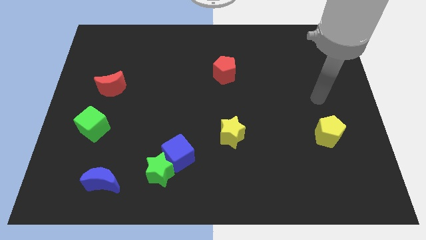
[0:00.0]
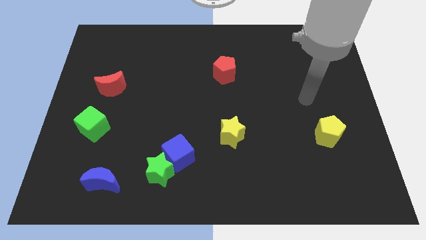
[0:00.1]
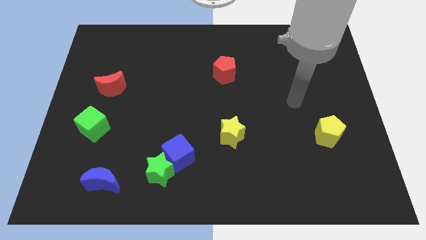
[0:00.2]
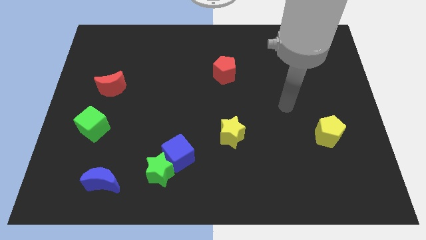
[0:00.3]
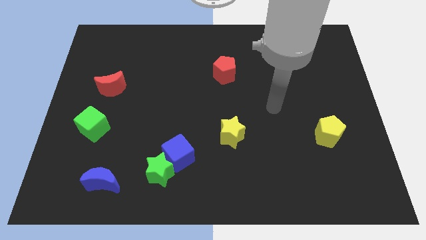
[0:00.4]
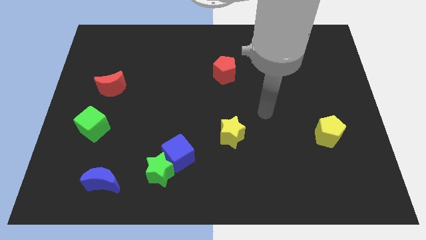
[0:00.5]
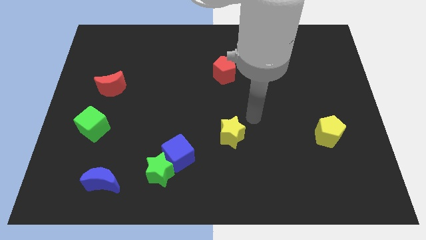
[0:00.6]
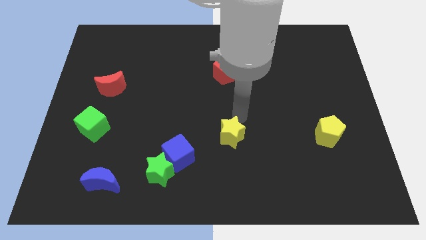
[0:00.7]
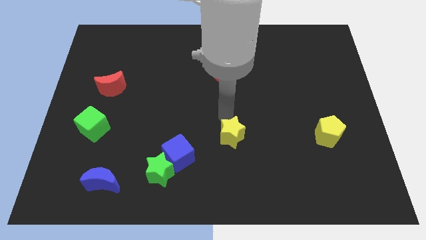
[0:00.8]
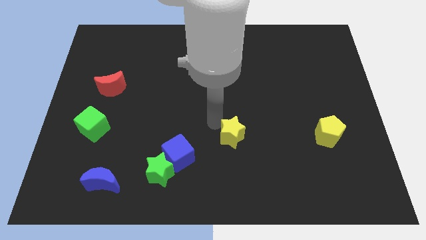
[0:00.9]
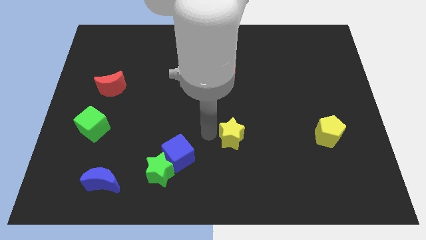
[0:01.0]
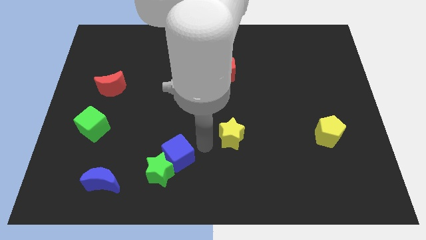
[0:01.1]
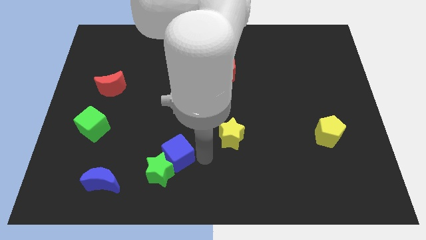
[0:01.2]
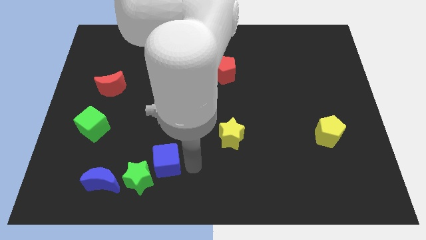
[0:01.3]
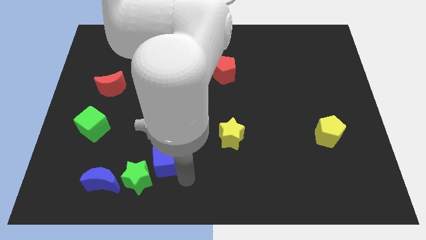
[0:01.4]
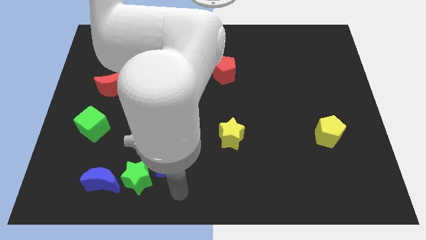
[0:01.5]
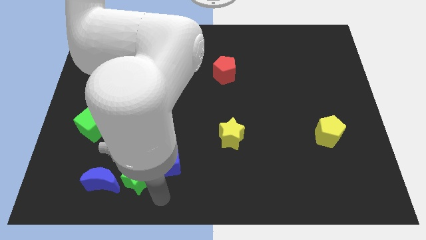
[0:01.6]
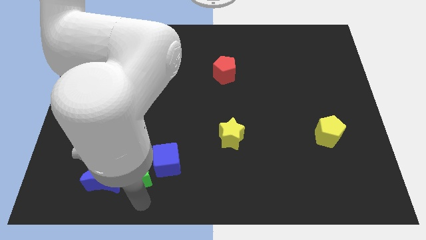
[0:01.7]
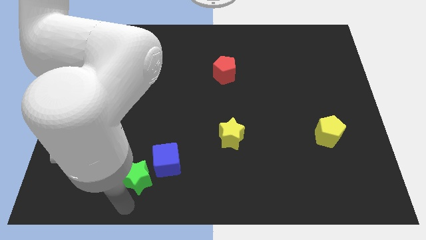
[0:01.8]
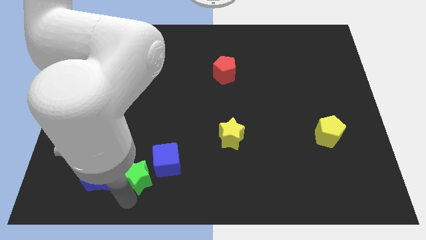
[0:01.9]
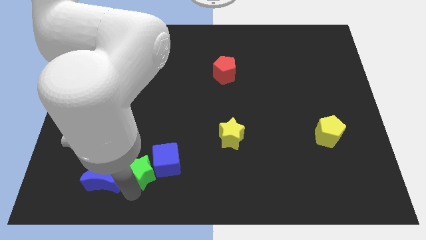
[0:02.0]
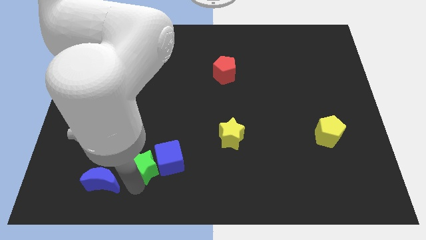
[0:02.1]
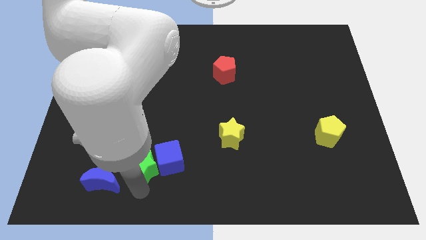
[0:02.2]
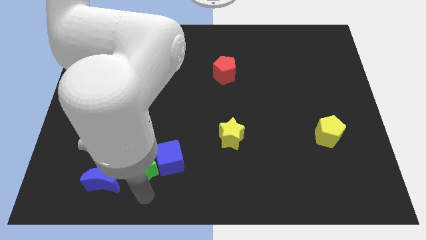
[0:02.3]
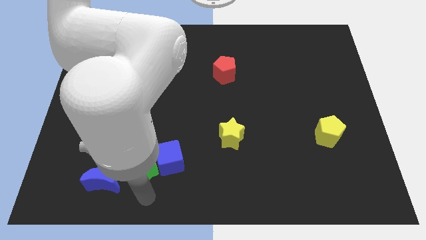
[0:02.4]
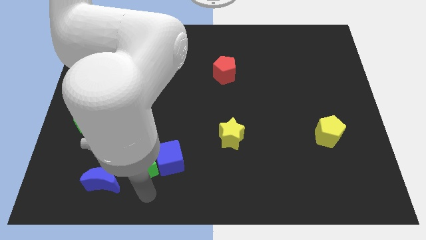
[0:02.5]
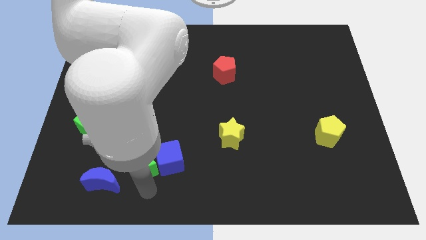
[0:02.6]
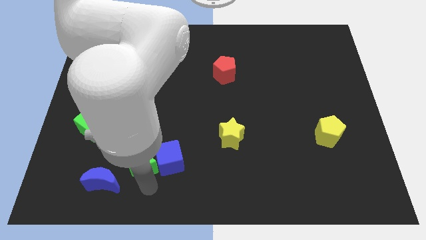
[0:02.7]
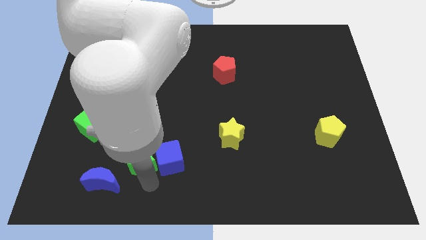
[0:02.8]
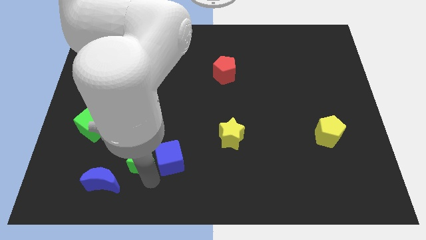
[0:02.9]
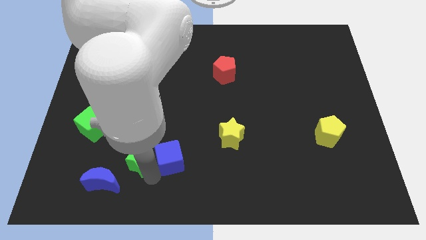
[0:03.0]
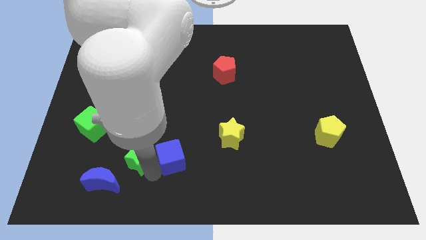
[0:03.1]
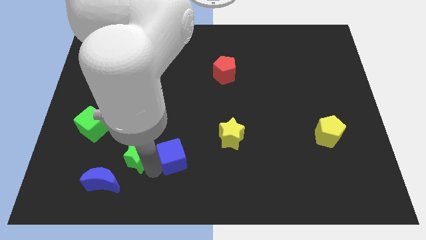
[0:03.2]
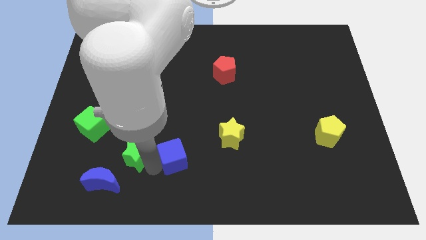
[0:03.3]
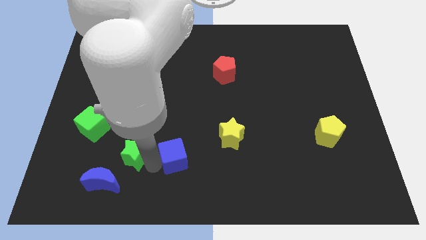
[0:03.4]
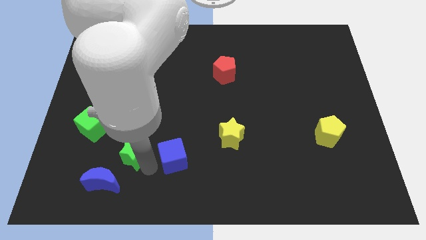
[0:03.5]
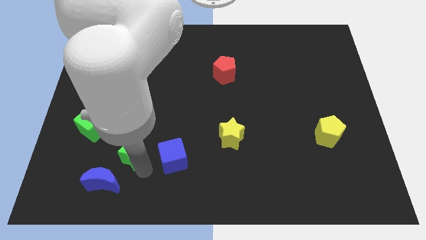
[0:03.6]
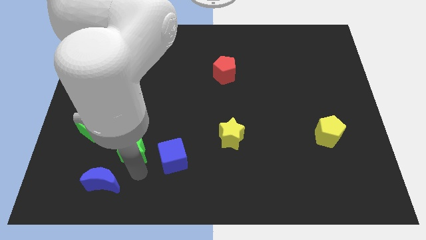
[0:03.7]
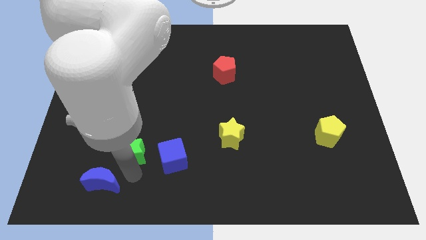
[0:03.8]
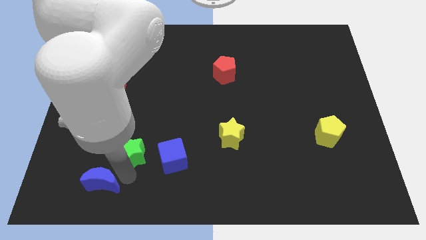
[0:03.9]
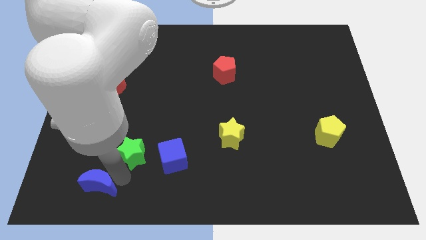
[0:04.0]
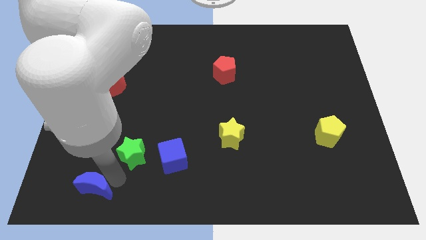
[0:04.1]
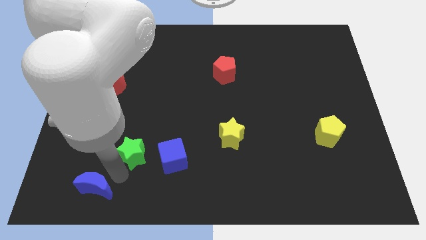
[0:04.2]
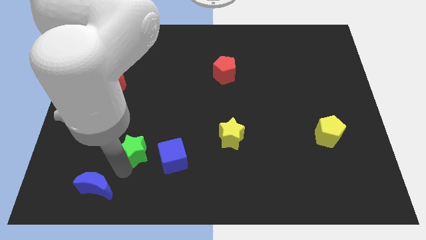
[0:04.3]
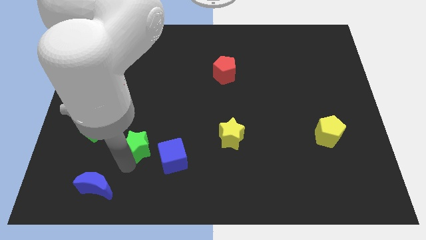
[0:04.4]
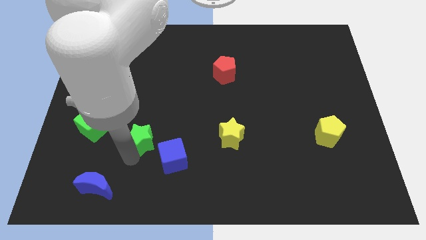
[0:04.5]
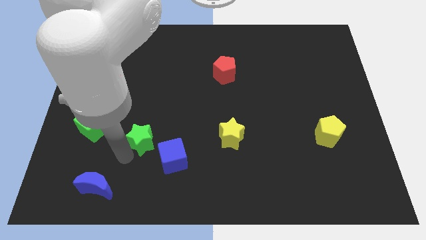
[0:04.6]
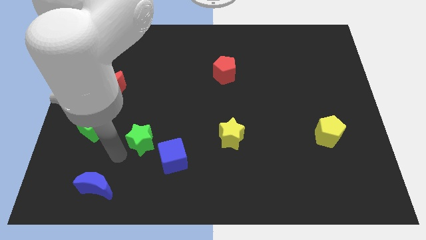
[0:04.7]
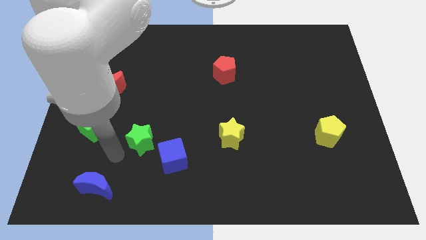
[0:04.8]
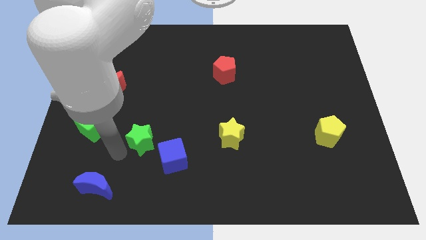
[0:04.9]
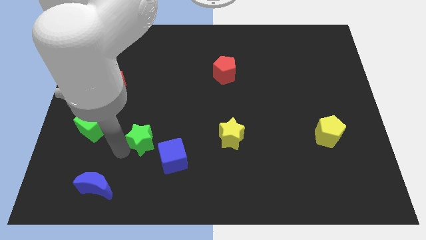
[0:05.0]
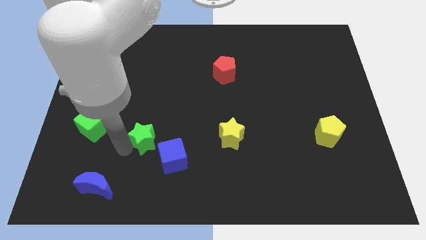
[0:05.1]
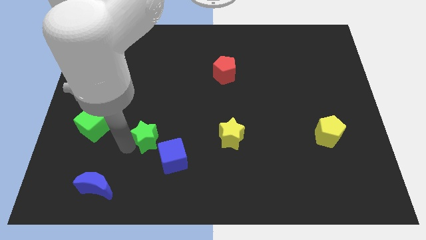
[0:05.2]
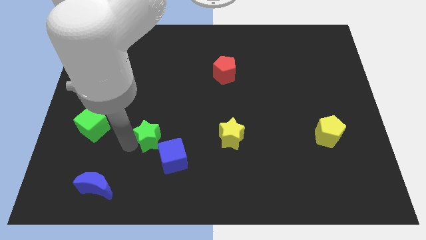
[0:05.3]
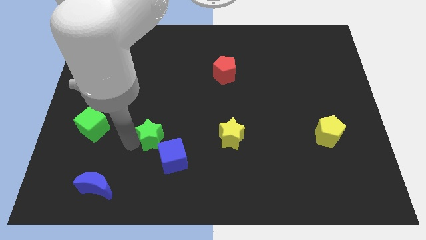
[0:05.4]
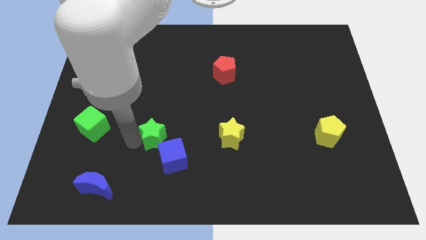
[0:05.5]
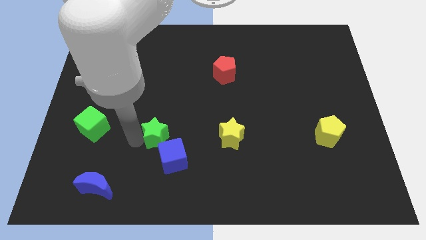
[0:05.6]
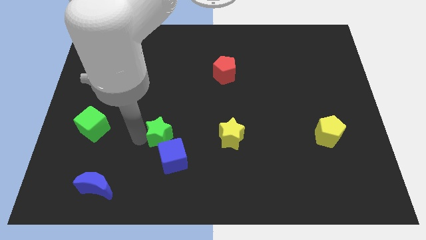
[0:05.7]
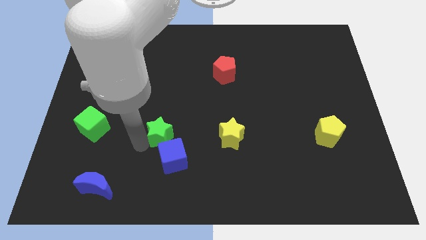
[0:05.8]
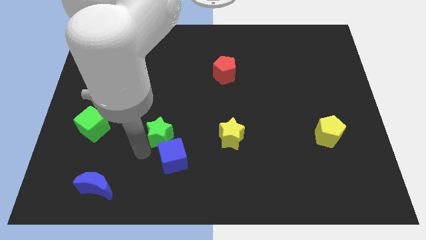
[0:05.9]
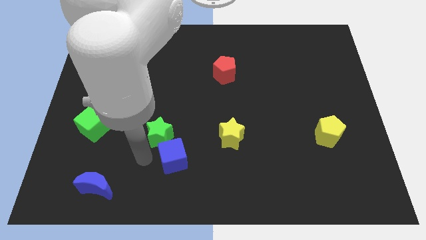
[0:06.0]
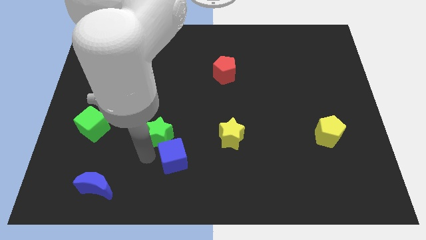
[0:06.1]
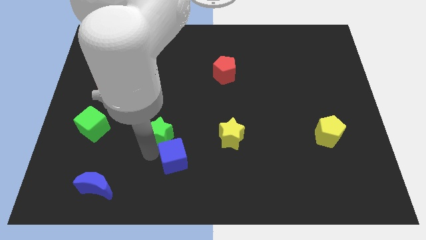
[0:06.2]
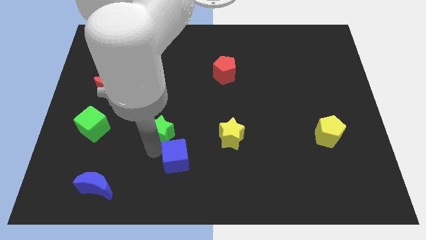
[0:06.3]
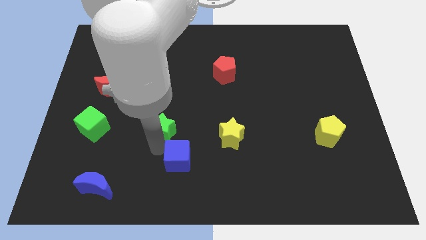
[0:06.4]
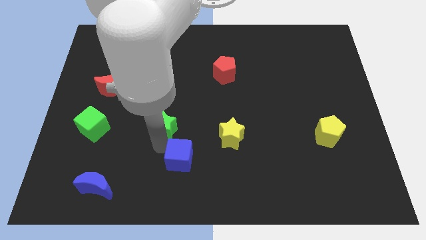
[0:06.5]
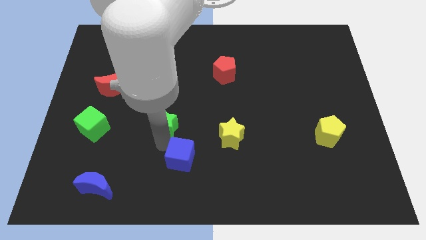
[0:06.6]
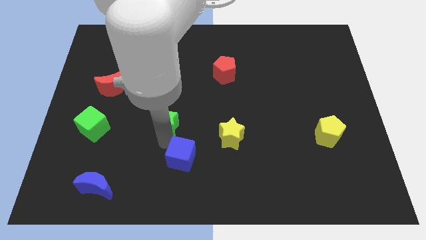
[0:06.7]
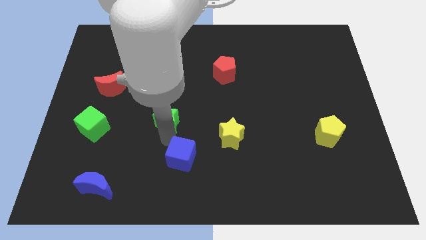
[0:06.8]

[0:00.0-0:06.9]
put the green star to the center of the board
